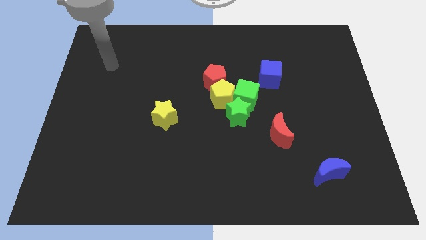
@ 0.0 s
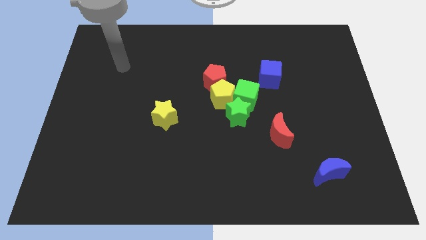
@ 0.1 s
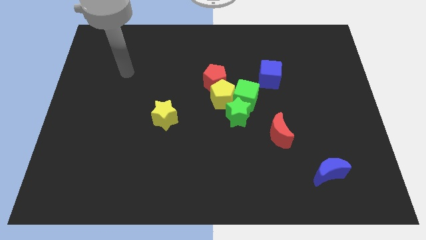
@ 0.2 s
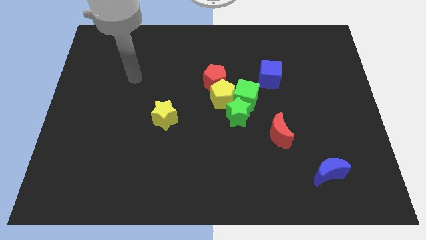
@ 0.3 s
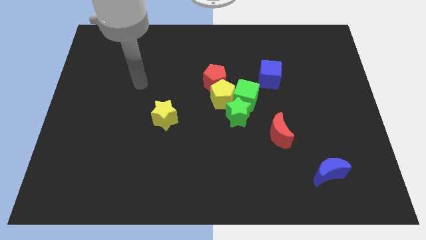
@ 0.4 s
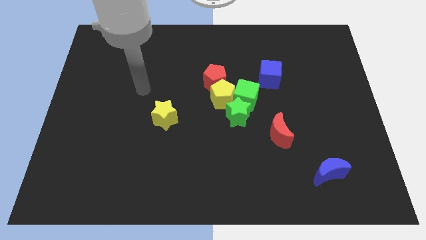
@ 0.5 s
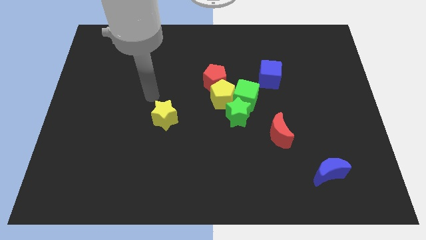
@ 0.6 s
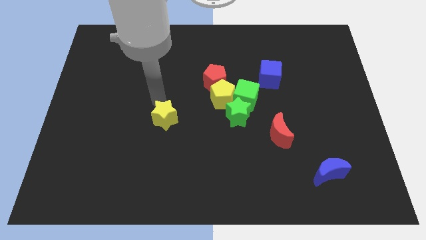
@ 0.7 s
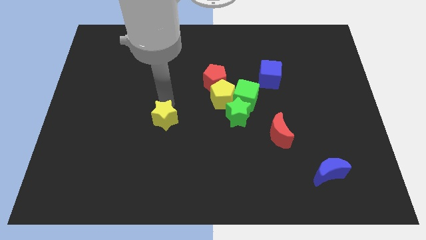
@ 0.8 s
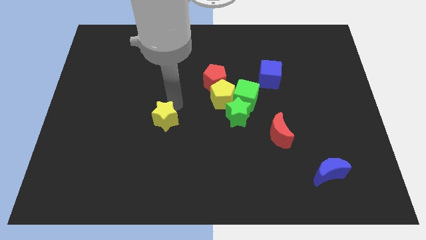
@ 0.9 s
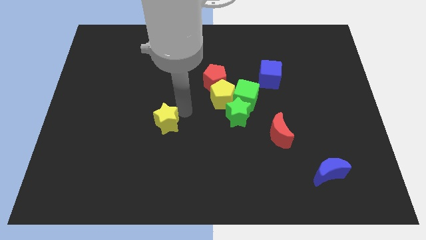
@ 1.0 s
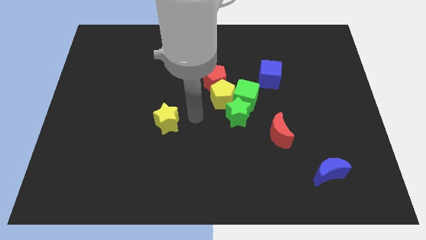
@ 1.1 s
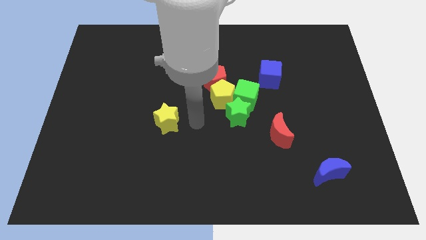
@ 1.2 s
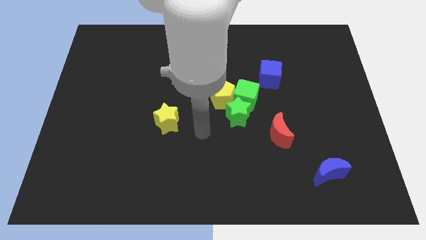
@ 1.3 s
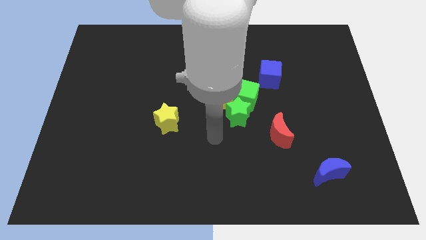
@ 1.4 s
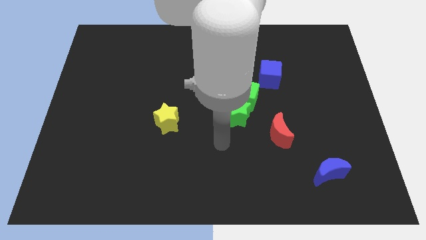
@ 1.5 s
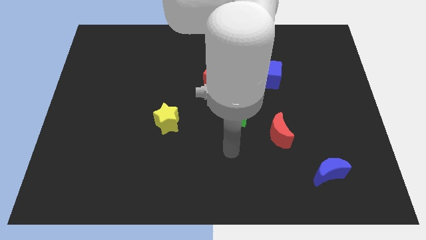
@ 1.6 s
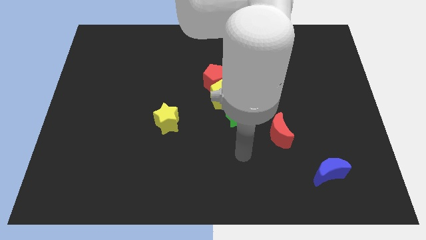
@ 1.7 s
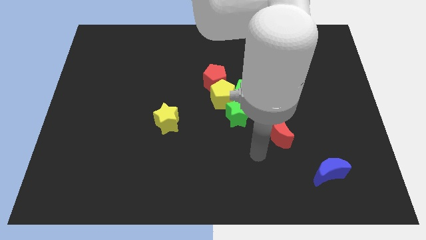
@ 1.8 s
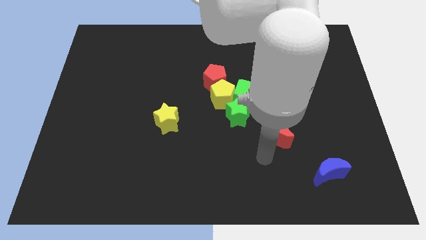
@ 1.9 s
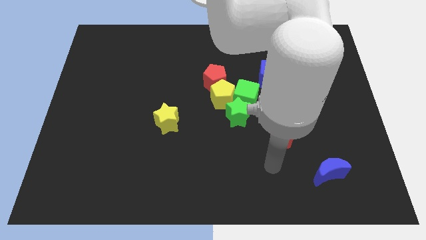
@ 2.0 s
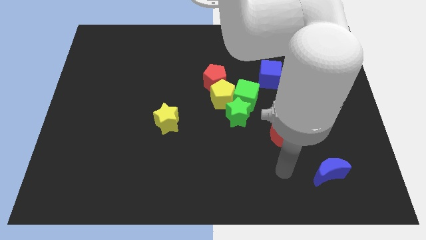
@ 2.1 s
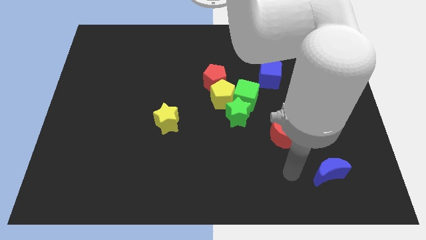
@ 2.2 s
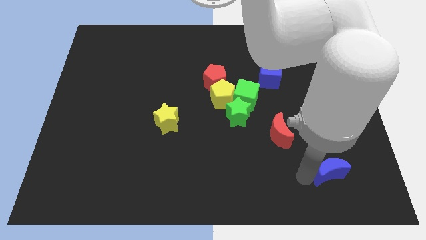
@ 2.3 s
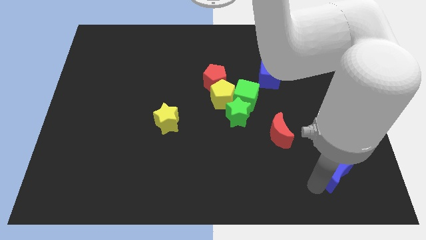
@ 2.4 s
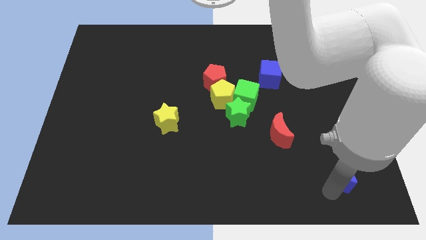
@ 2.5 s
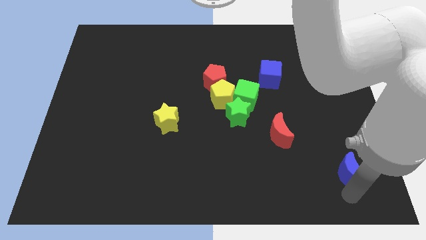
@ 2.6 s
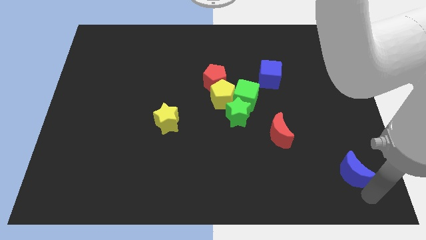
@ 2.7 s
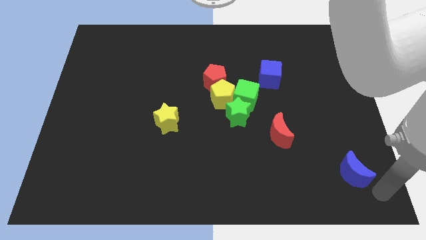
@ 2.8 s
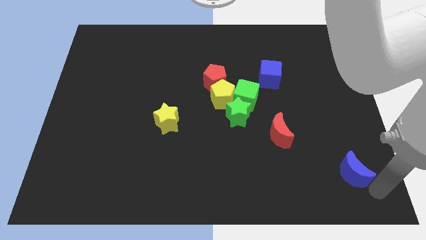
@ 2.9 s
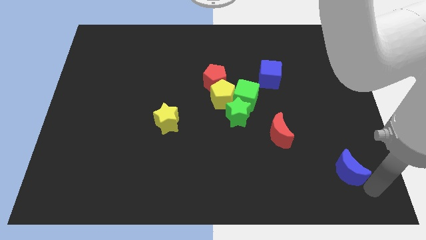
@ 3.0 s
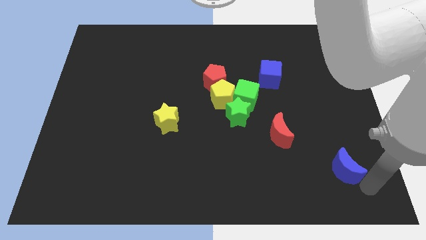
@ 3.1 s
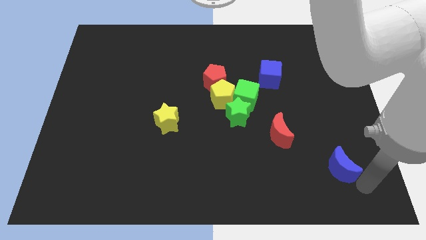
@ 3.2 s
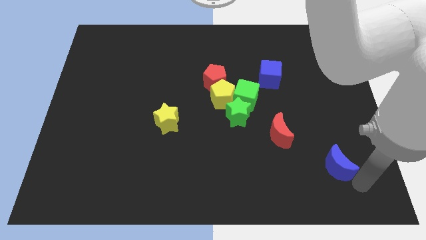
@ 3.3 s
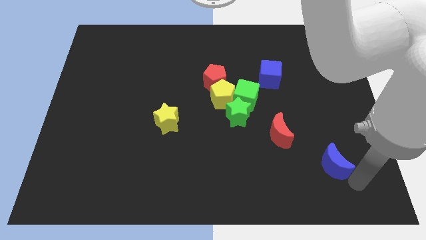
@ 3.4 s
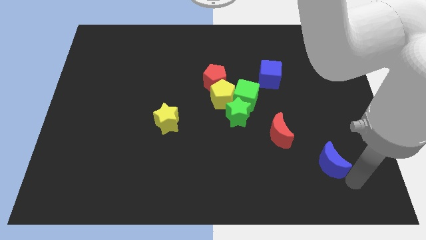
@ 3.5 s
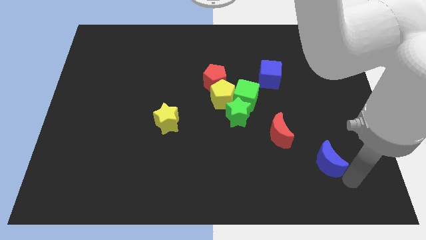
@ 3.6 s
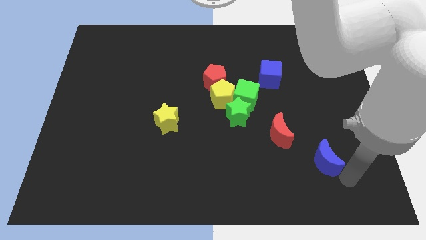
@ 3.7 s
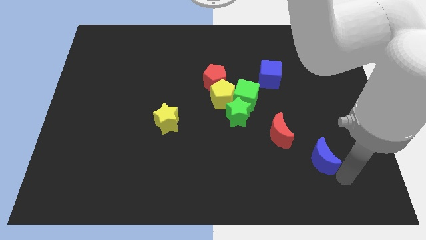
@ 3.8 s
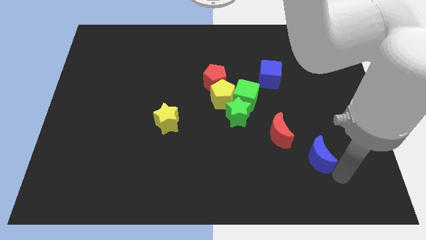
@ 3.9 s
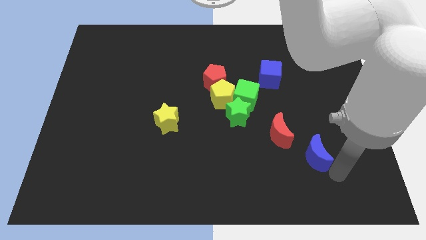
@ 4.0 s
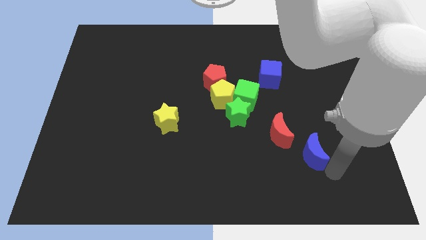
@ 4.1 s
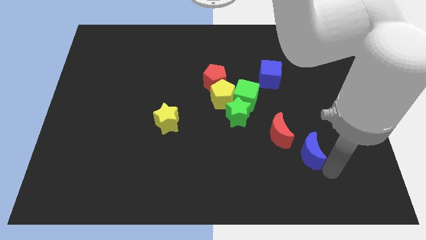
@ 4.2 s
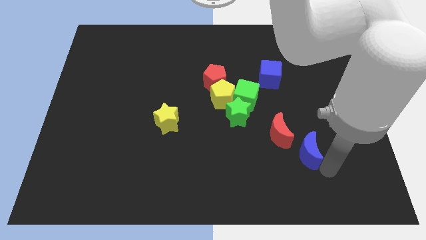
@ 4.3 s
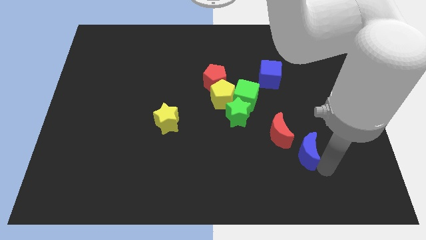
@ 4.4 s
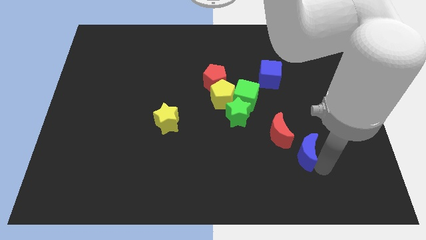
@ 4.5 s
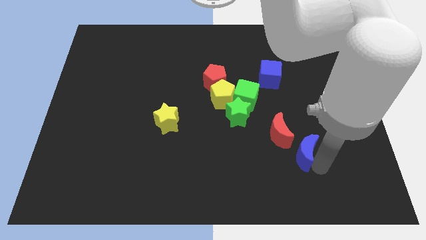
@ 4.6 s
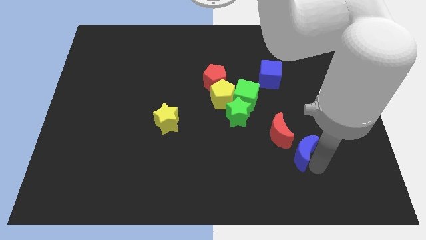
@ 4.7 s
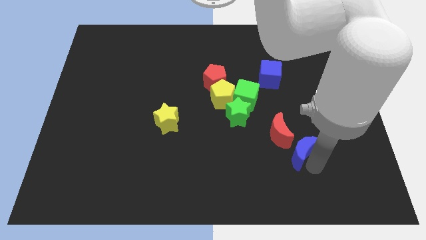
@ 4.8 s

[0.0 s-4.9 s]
slightly move the blue moon diagonally upwards and to the left

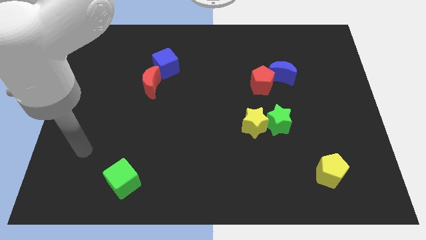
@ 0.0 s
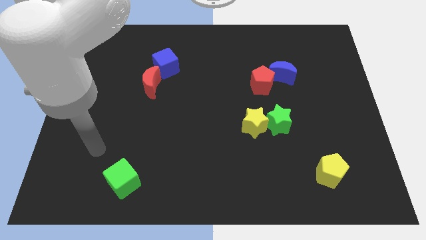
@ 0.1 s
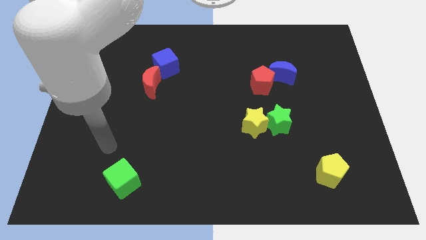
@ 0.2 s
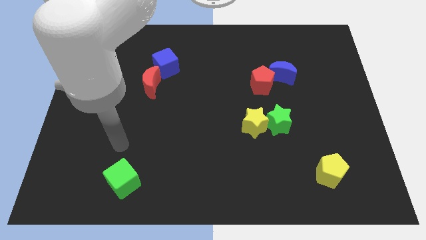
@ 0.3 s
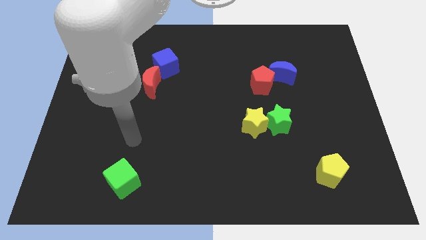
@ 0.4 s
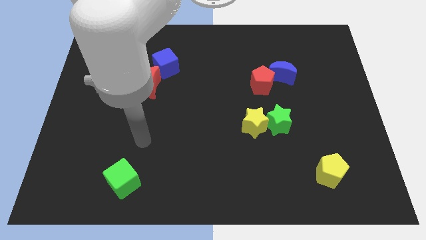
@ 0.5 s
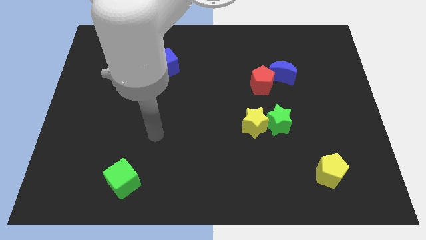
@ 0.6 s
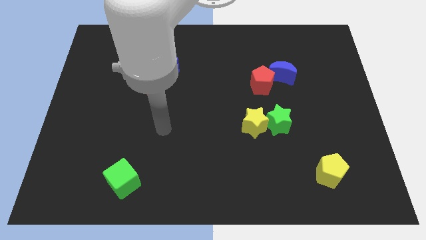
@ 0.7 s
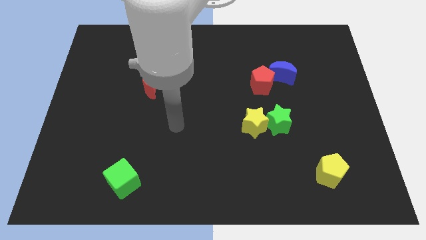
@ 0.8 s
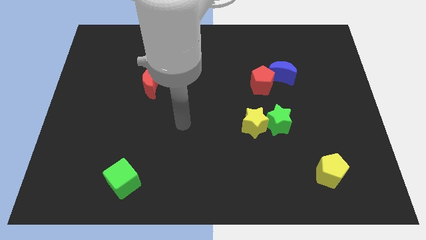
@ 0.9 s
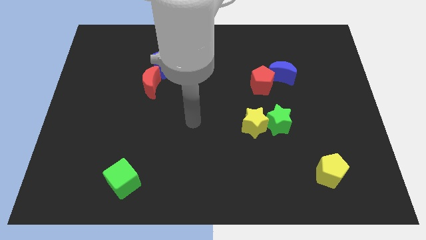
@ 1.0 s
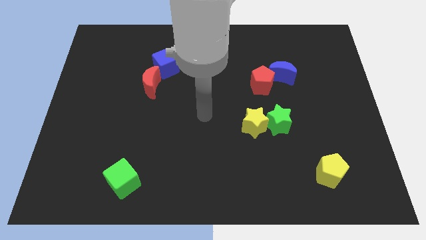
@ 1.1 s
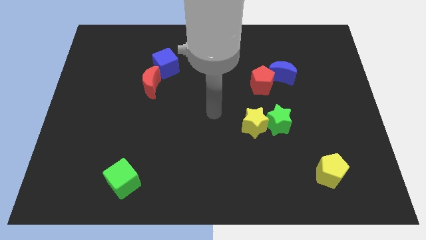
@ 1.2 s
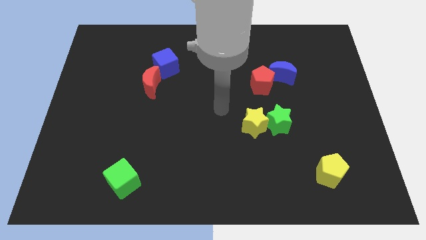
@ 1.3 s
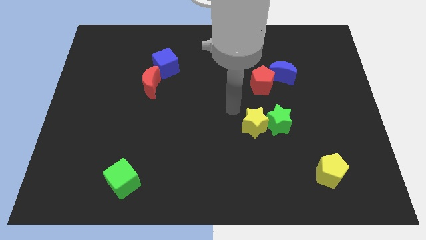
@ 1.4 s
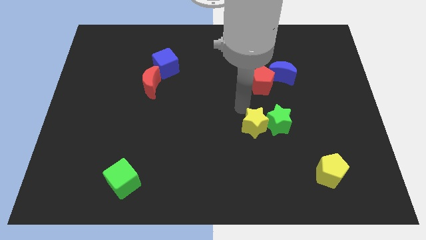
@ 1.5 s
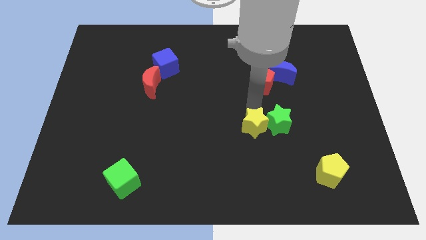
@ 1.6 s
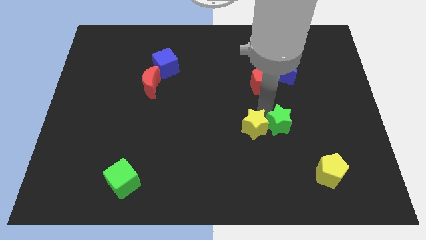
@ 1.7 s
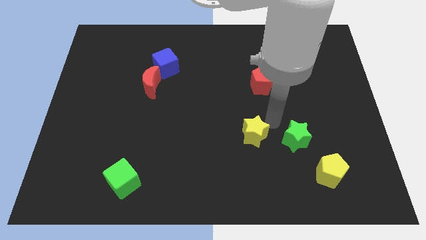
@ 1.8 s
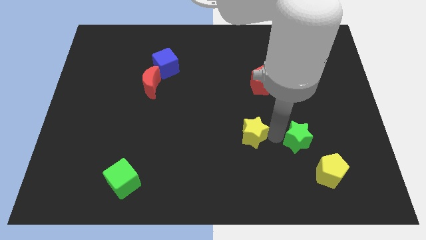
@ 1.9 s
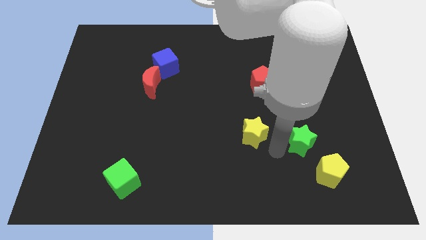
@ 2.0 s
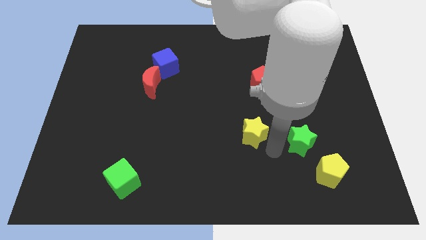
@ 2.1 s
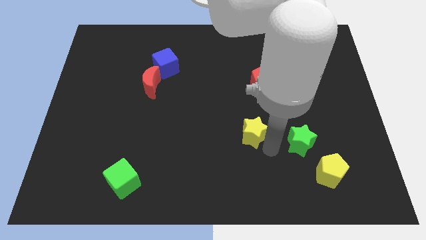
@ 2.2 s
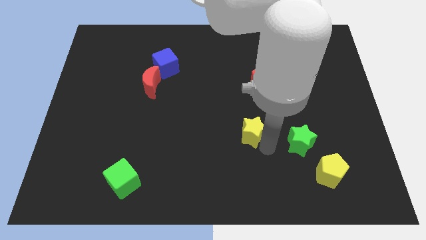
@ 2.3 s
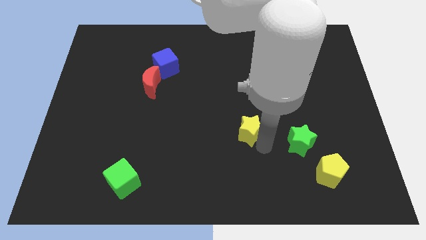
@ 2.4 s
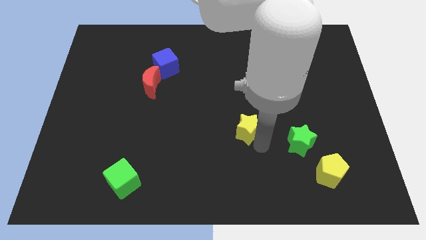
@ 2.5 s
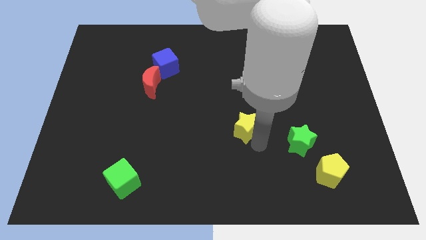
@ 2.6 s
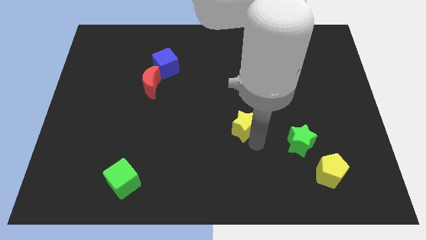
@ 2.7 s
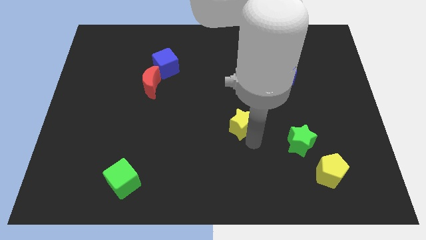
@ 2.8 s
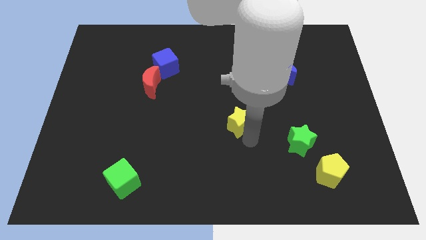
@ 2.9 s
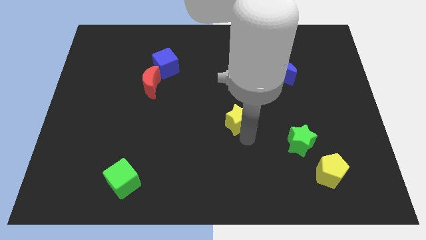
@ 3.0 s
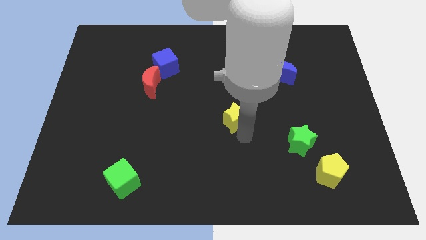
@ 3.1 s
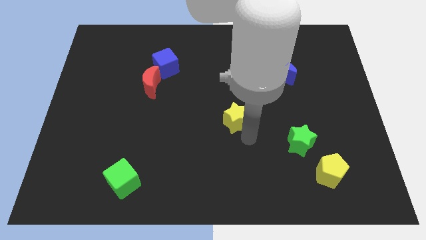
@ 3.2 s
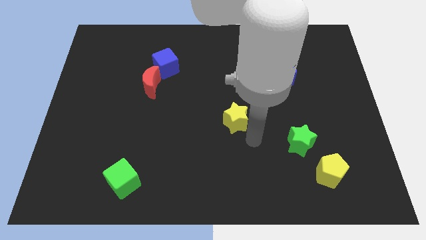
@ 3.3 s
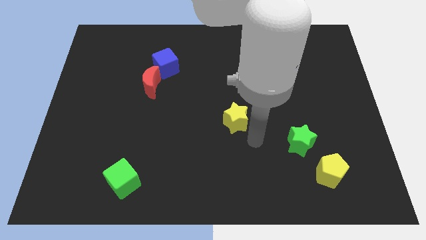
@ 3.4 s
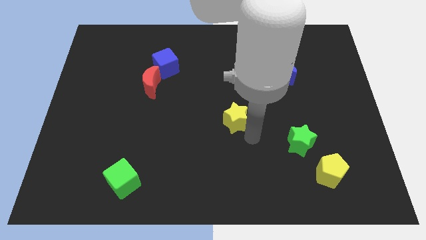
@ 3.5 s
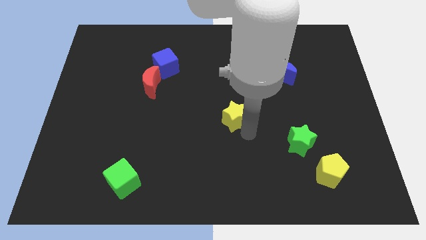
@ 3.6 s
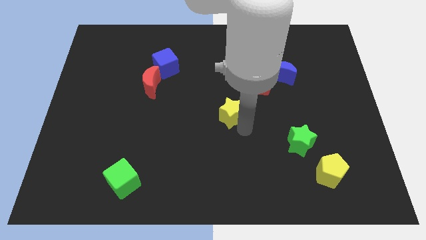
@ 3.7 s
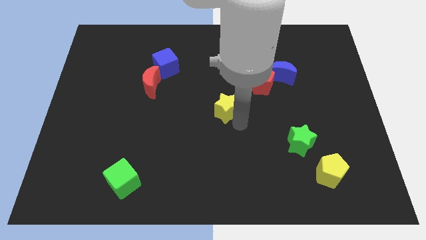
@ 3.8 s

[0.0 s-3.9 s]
slide the yellow star slightly diagonally up and to the left
